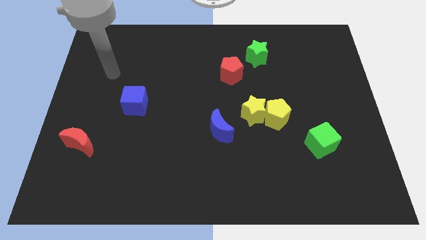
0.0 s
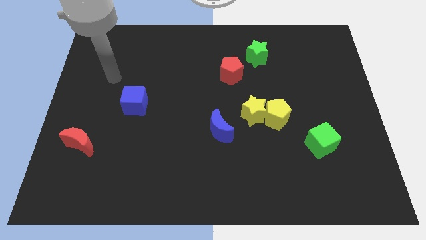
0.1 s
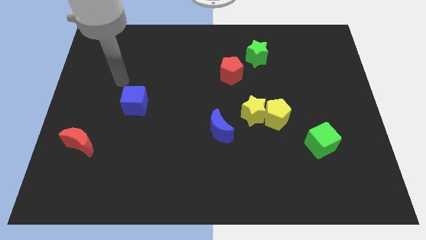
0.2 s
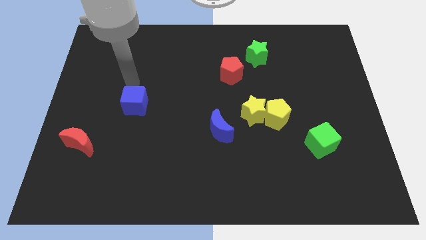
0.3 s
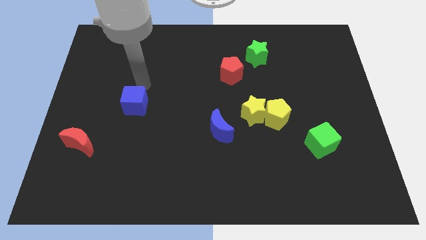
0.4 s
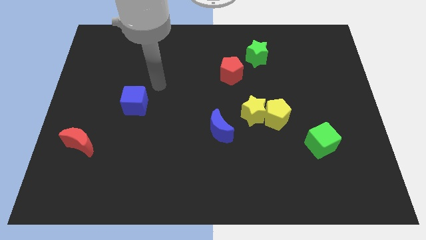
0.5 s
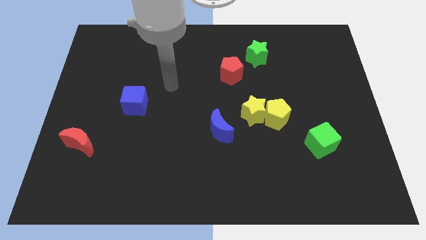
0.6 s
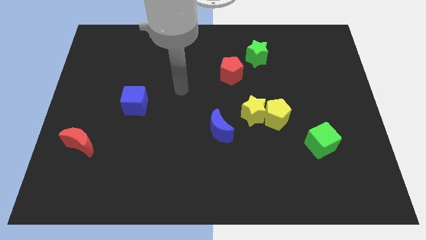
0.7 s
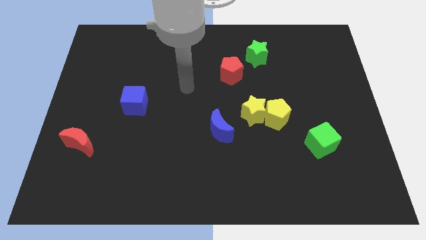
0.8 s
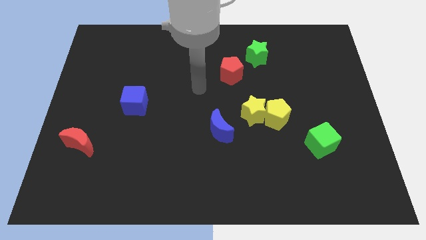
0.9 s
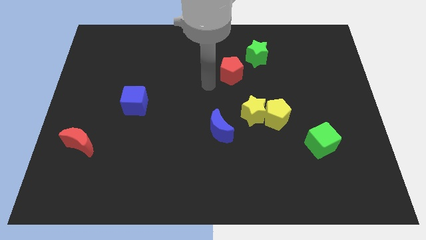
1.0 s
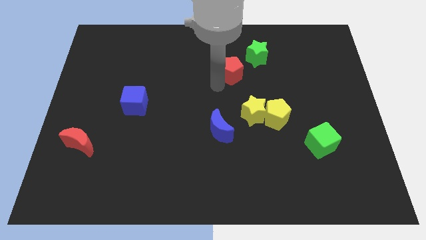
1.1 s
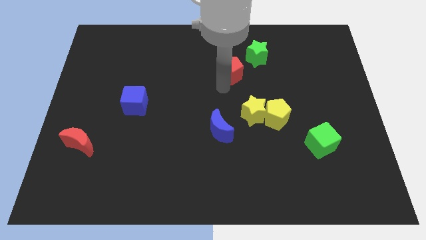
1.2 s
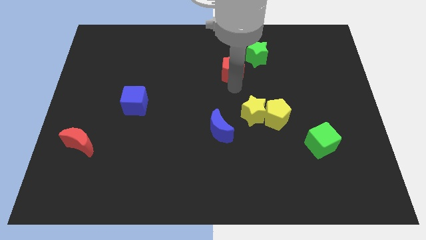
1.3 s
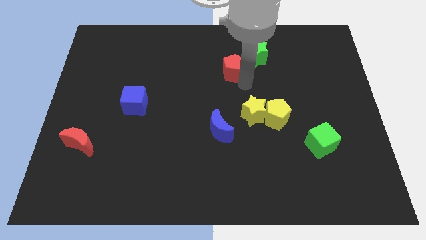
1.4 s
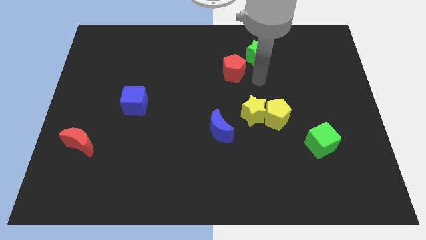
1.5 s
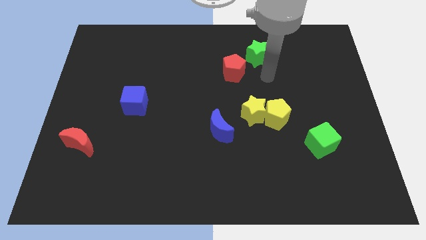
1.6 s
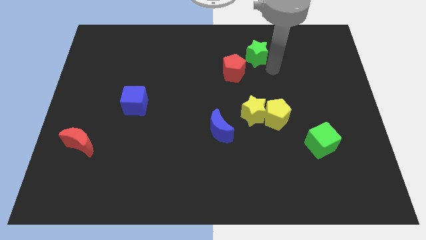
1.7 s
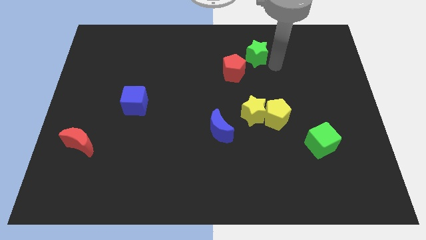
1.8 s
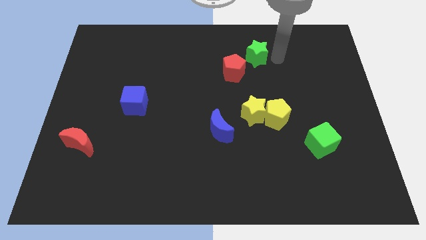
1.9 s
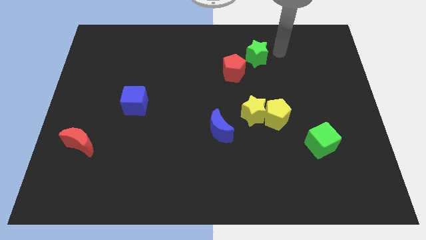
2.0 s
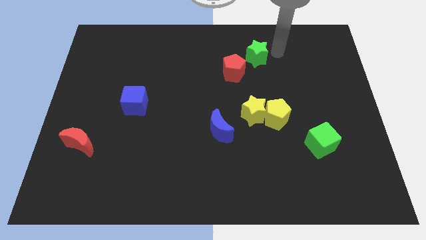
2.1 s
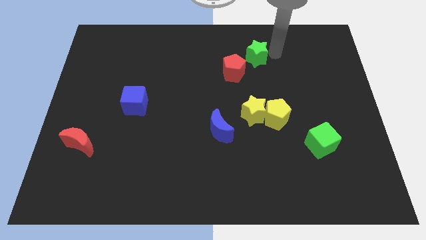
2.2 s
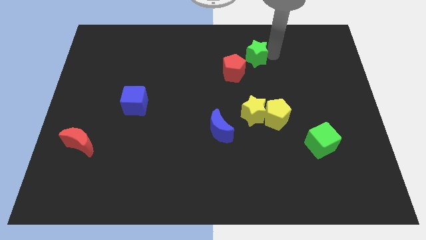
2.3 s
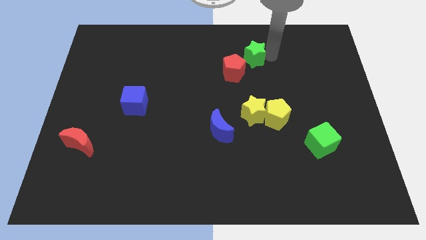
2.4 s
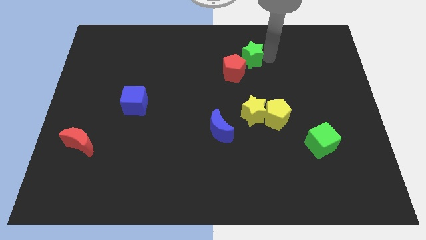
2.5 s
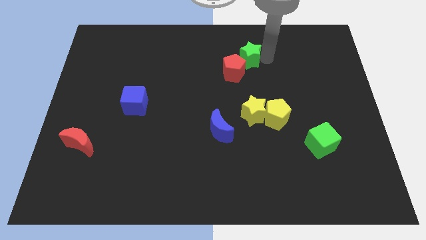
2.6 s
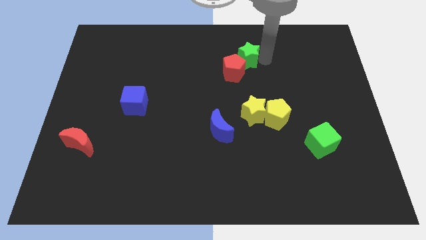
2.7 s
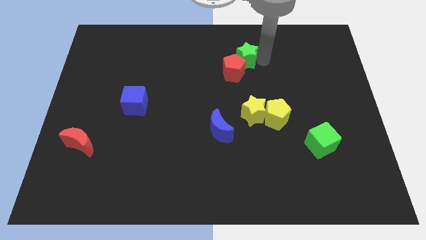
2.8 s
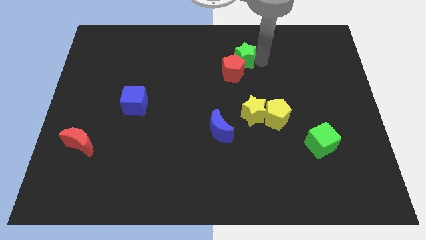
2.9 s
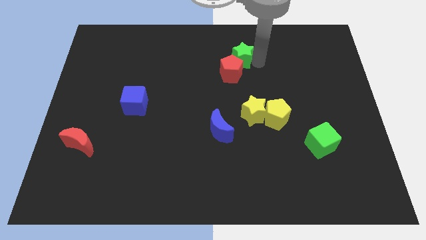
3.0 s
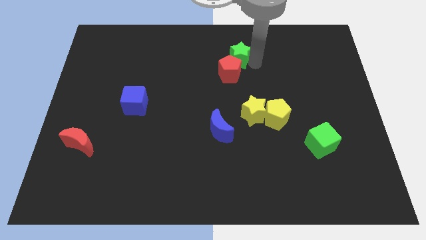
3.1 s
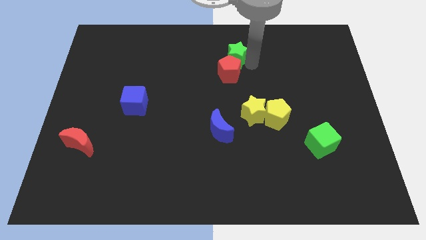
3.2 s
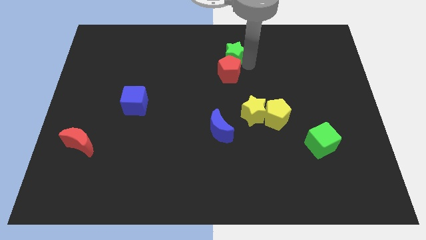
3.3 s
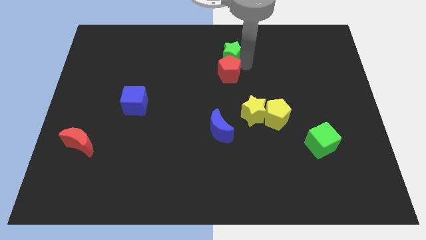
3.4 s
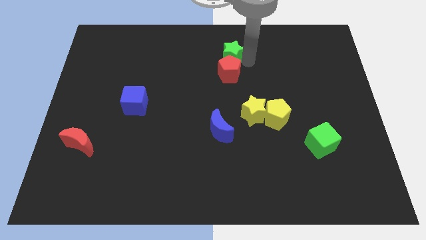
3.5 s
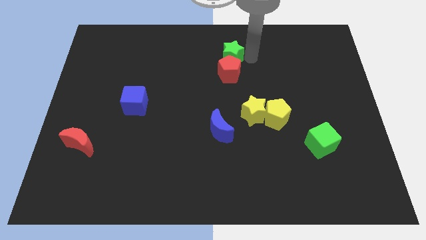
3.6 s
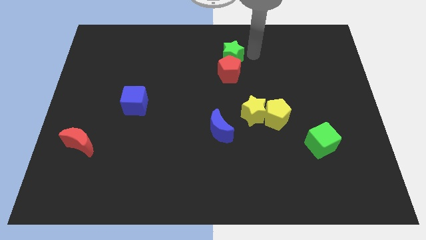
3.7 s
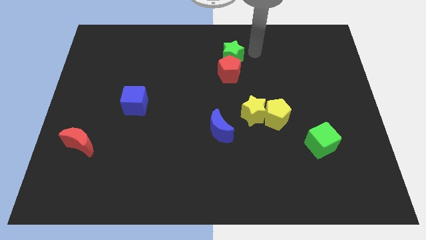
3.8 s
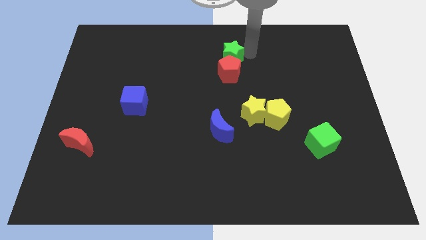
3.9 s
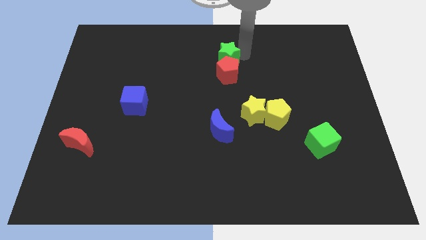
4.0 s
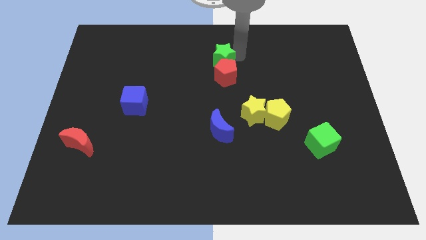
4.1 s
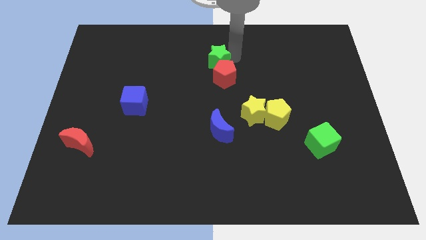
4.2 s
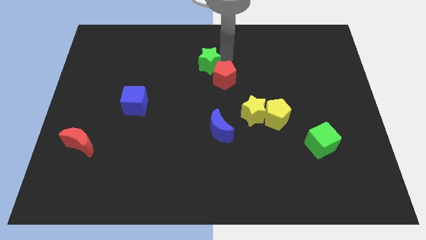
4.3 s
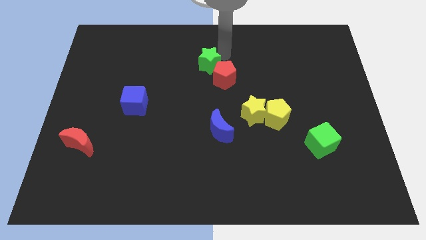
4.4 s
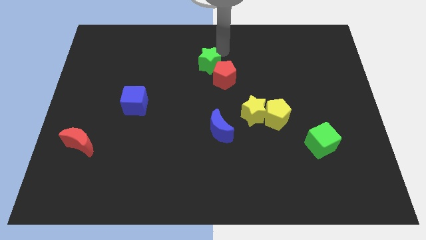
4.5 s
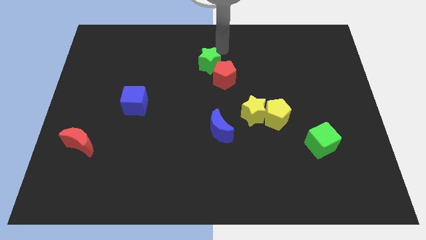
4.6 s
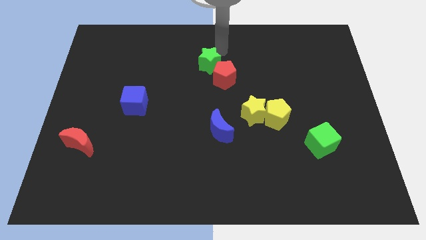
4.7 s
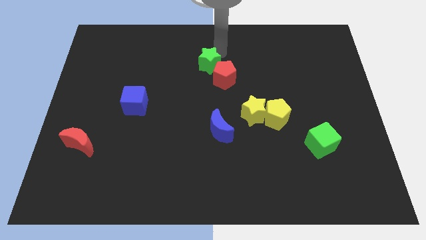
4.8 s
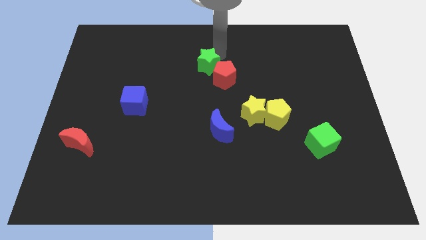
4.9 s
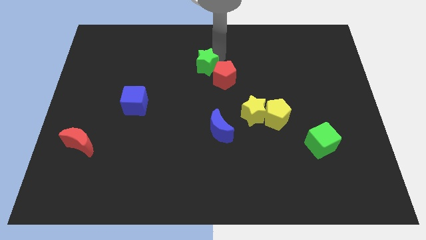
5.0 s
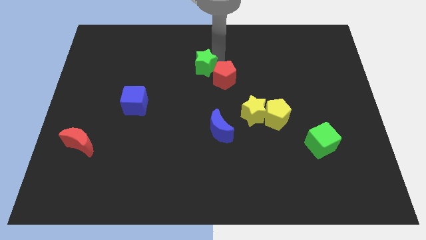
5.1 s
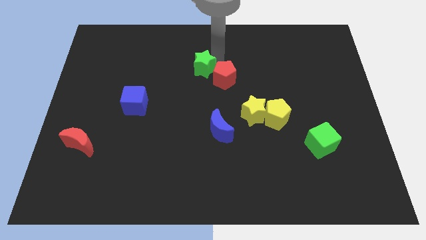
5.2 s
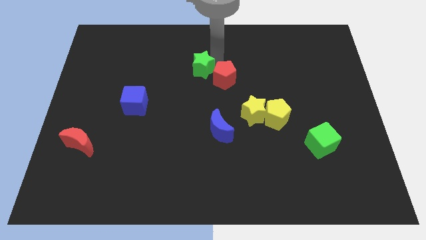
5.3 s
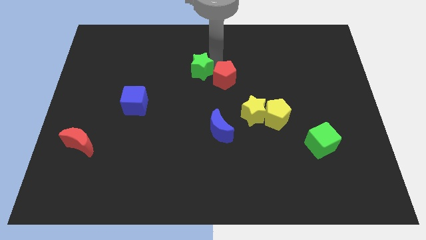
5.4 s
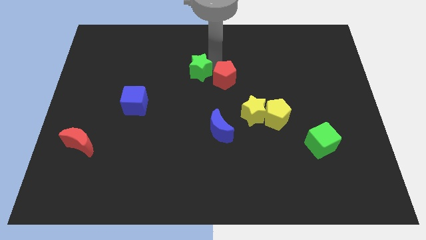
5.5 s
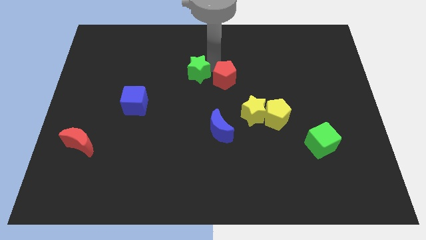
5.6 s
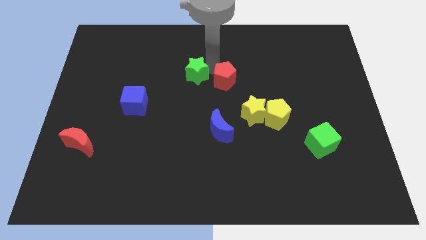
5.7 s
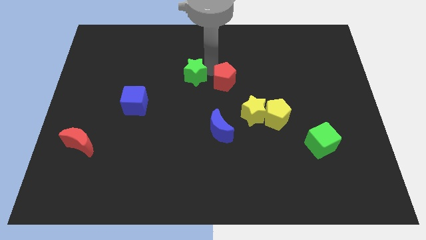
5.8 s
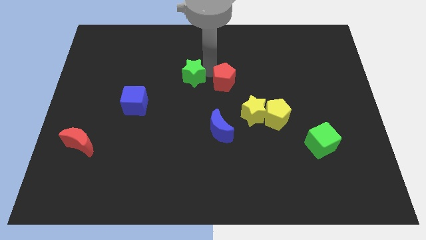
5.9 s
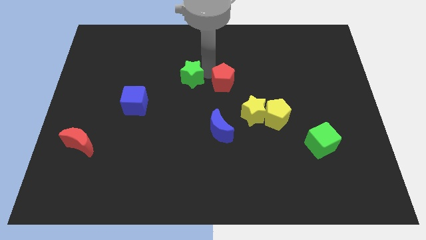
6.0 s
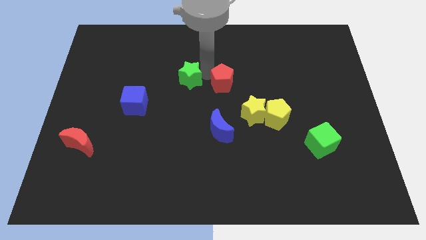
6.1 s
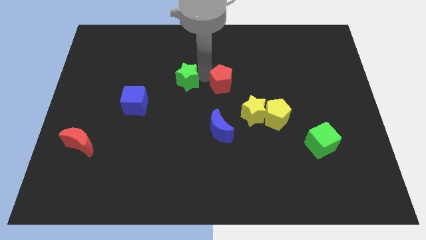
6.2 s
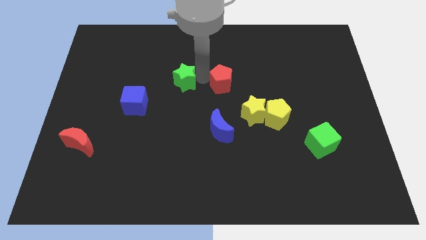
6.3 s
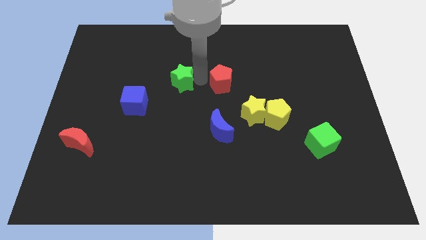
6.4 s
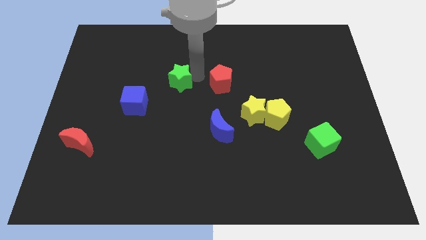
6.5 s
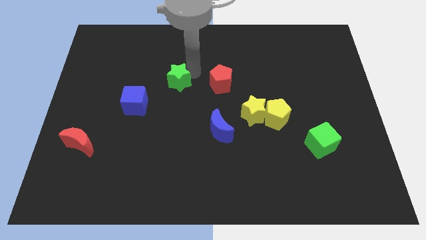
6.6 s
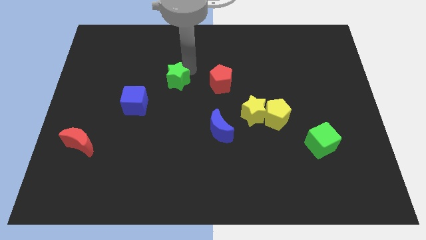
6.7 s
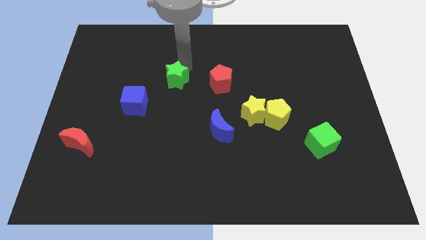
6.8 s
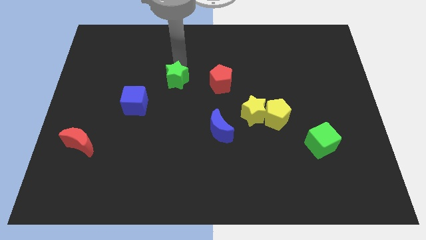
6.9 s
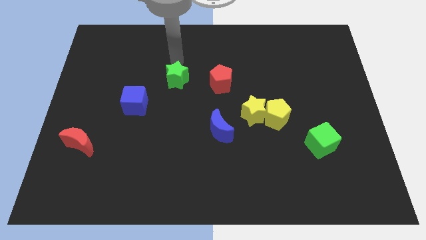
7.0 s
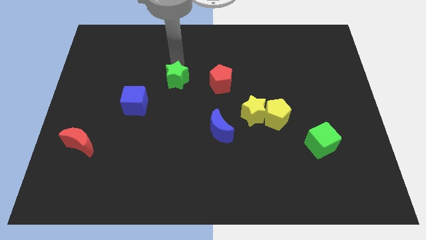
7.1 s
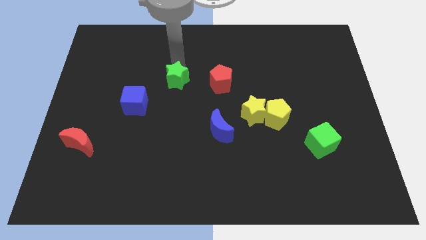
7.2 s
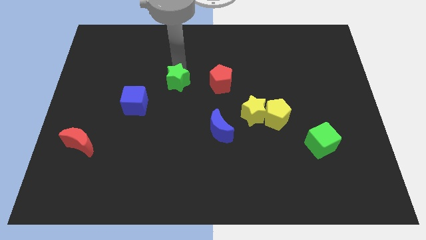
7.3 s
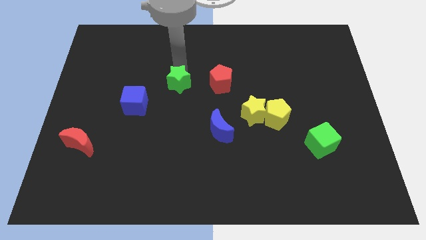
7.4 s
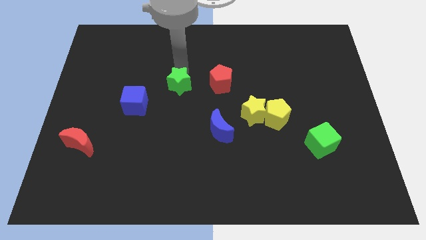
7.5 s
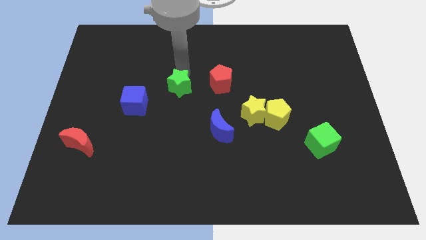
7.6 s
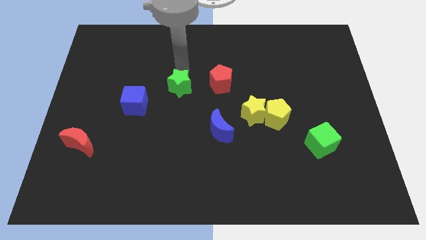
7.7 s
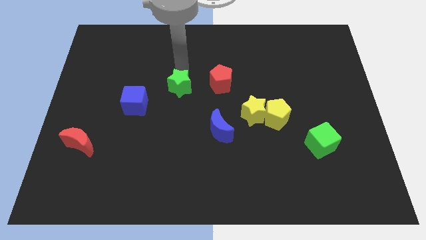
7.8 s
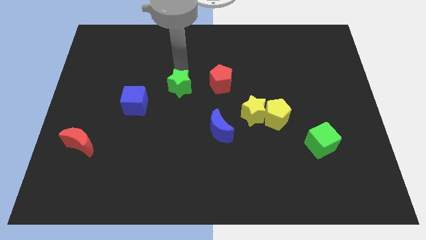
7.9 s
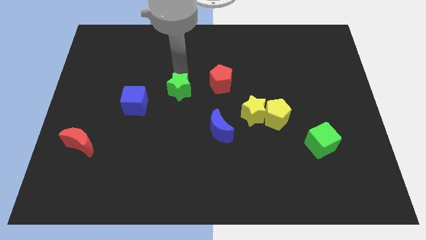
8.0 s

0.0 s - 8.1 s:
push the green star just right of the blue cube
